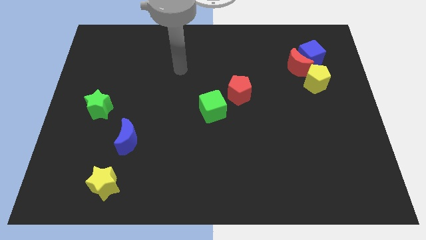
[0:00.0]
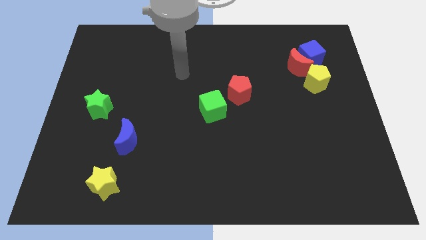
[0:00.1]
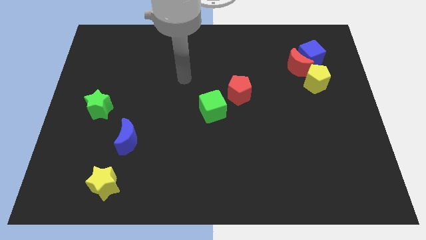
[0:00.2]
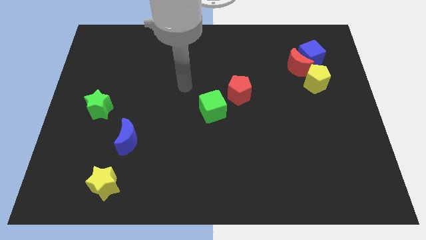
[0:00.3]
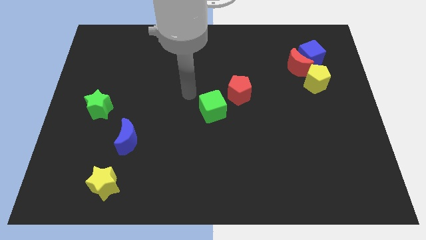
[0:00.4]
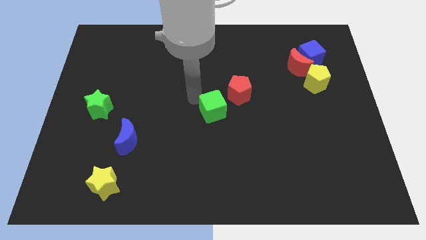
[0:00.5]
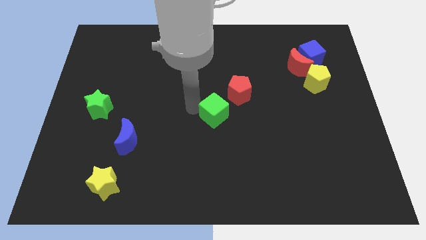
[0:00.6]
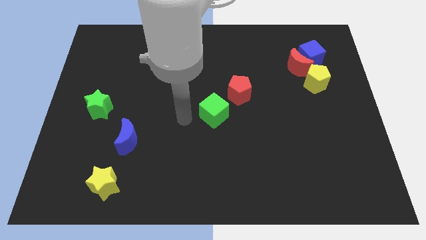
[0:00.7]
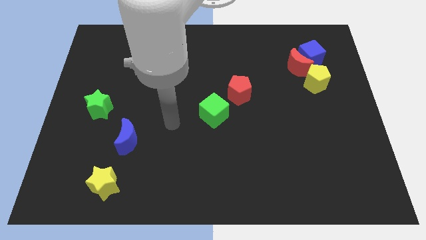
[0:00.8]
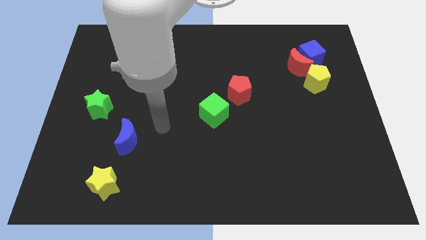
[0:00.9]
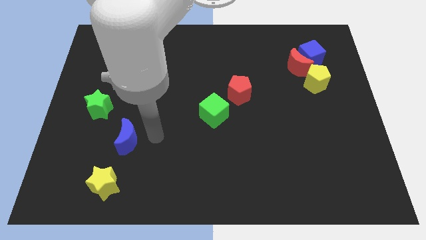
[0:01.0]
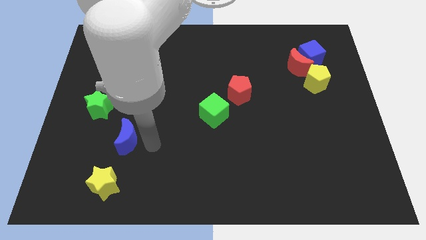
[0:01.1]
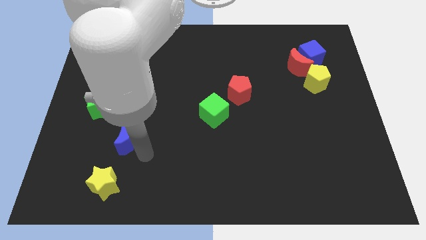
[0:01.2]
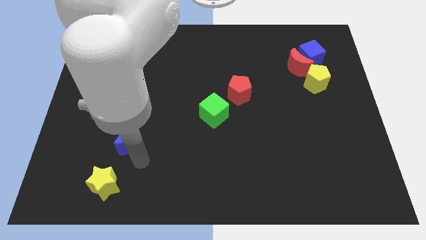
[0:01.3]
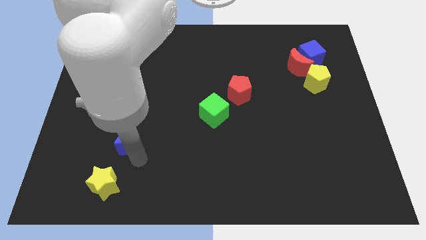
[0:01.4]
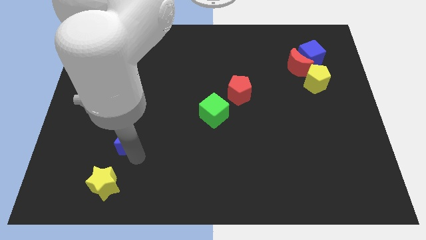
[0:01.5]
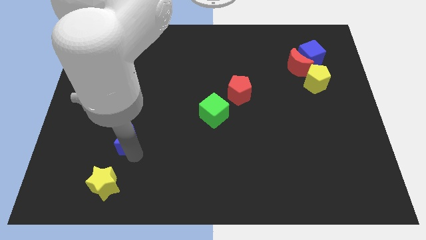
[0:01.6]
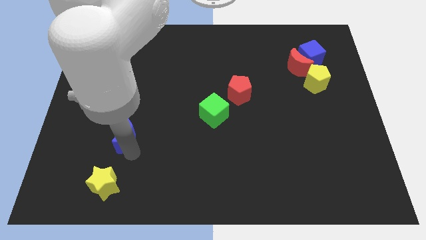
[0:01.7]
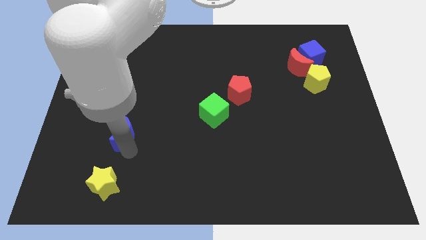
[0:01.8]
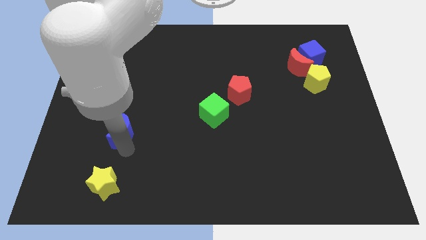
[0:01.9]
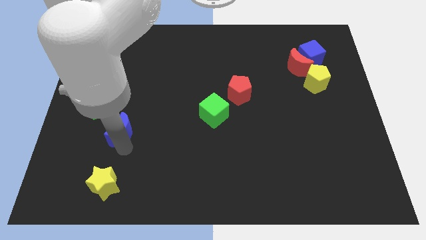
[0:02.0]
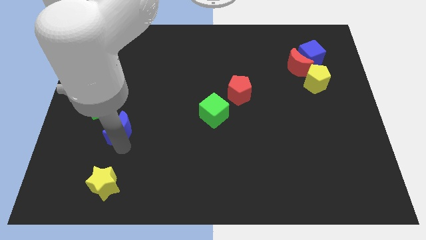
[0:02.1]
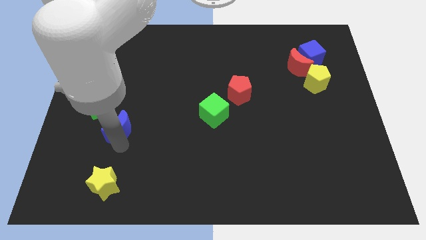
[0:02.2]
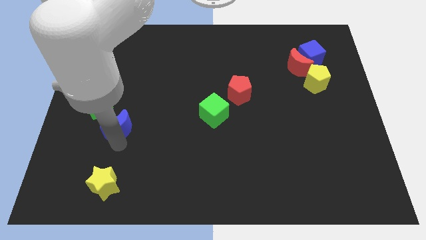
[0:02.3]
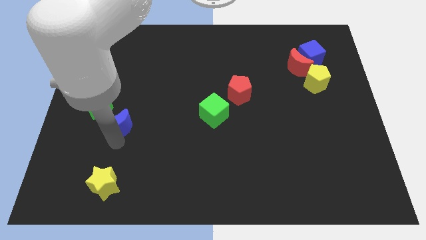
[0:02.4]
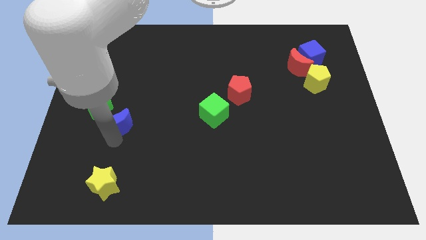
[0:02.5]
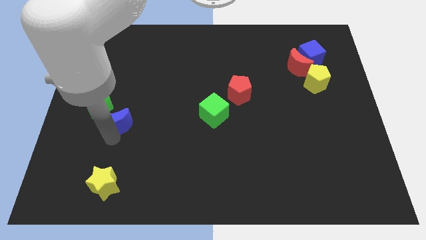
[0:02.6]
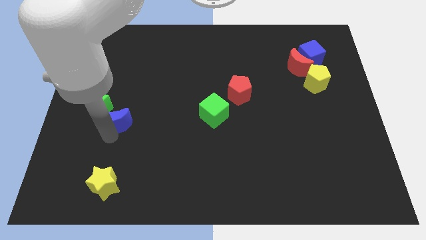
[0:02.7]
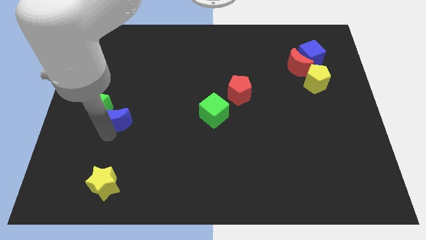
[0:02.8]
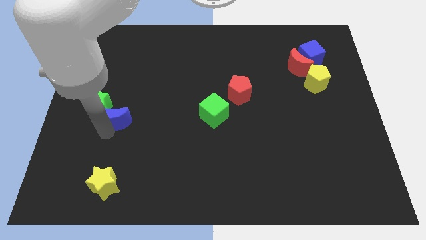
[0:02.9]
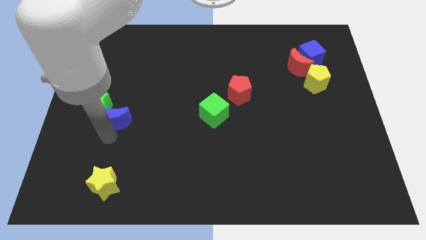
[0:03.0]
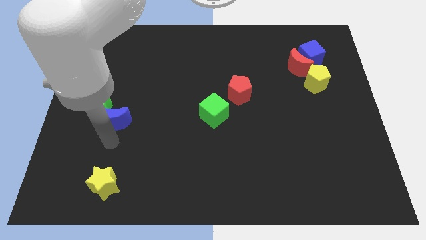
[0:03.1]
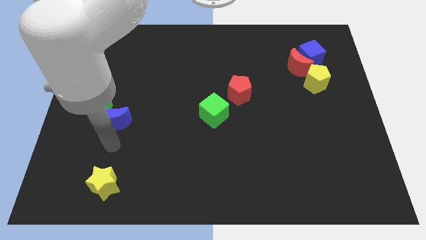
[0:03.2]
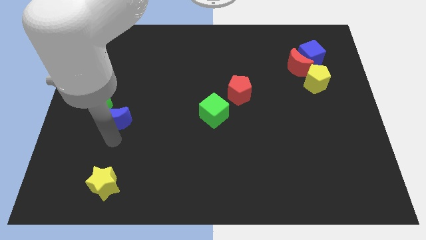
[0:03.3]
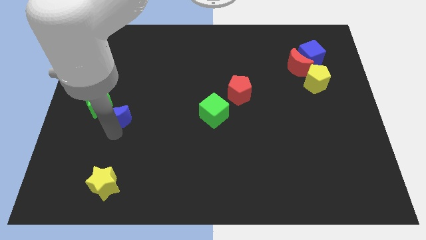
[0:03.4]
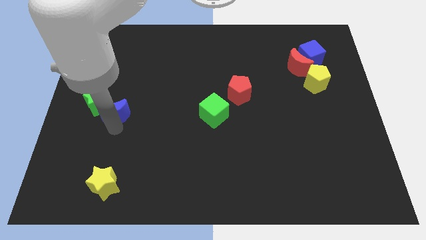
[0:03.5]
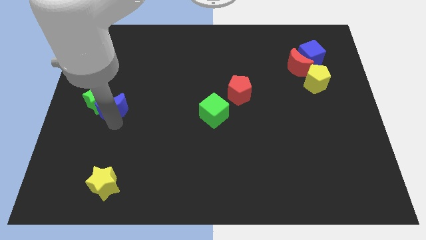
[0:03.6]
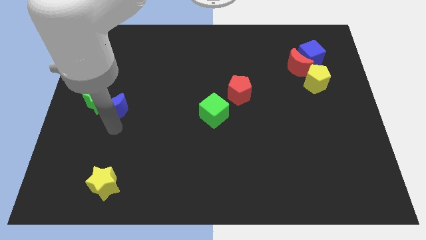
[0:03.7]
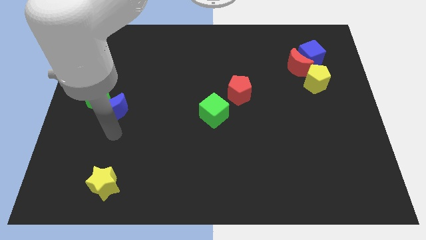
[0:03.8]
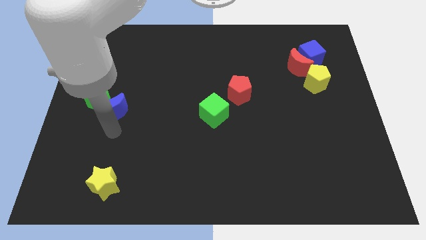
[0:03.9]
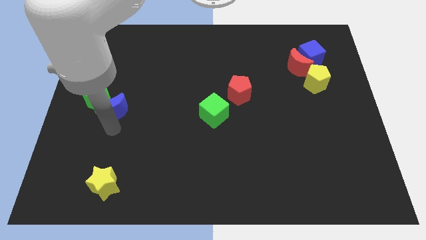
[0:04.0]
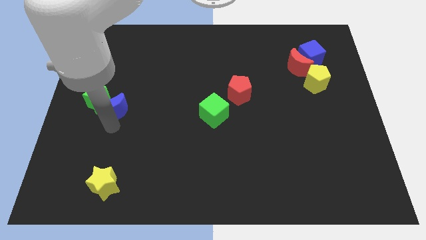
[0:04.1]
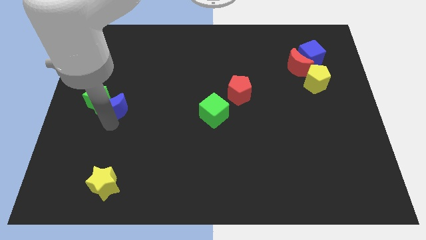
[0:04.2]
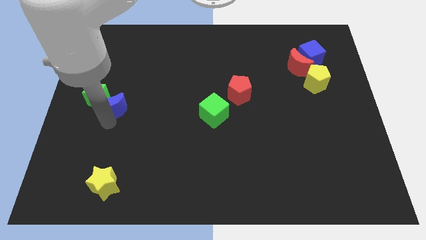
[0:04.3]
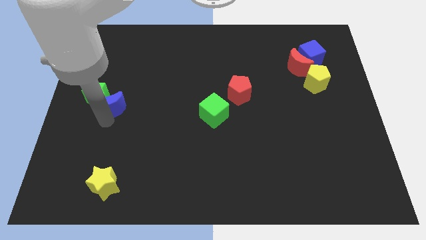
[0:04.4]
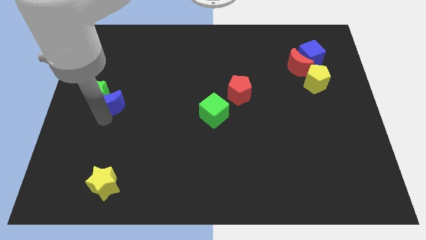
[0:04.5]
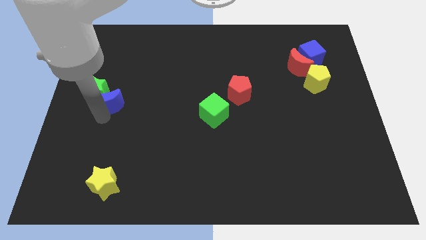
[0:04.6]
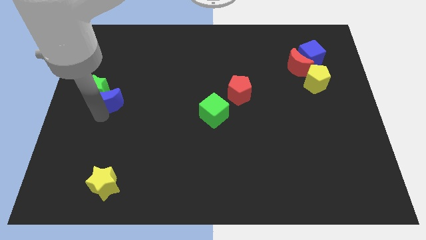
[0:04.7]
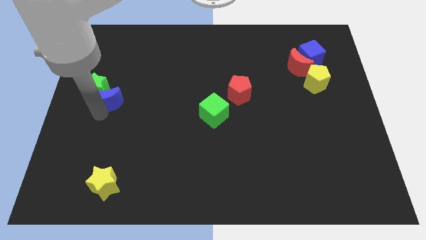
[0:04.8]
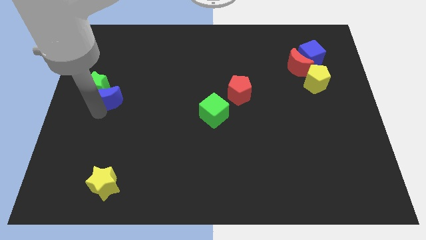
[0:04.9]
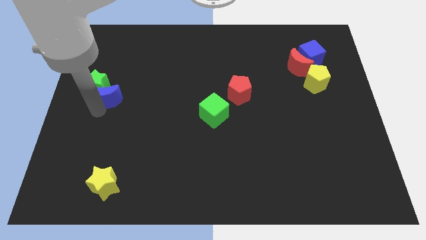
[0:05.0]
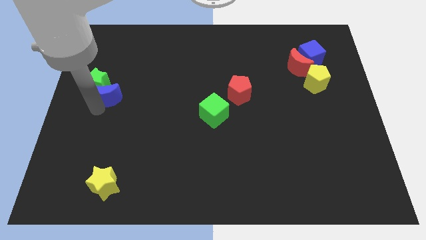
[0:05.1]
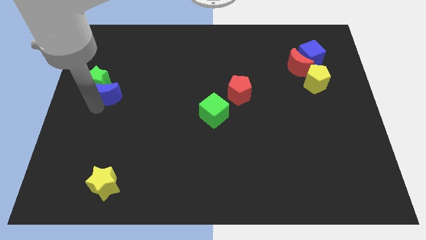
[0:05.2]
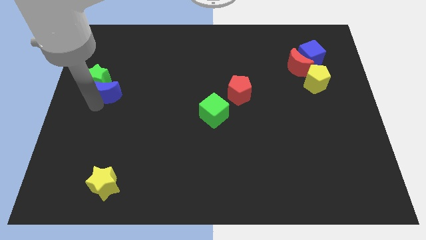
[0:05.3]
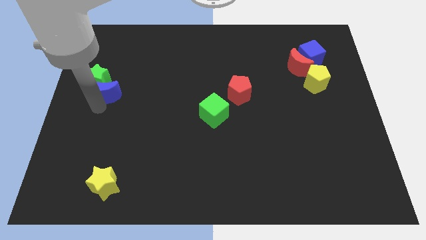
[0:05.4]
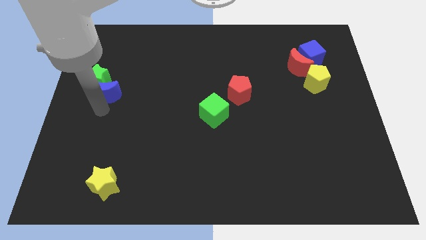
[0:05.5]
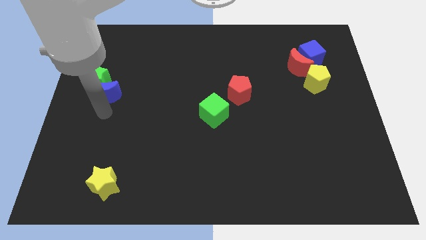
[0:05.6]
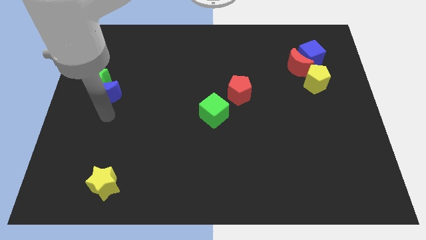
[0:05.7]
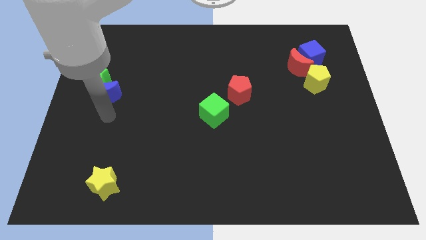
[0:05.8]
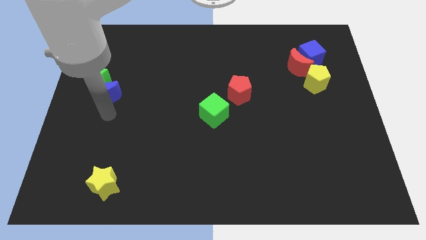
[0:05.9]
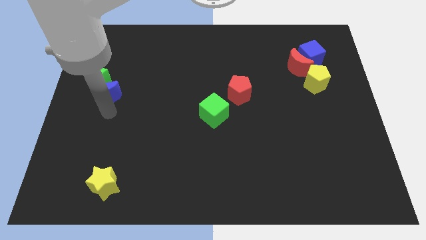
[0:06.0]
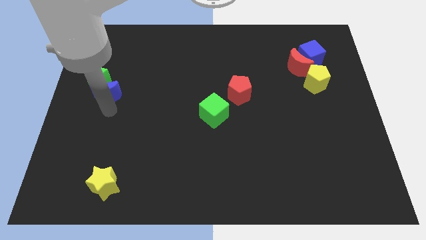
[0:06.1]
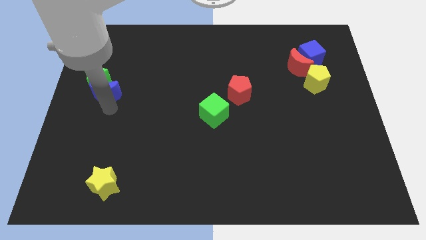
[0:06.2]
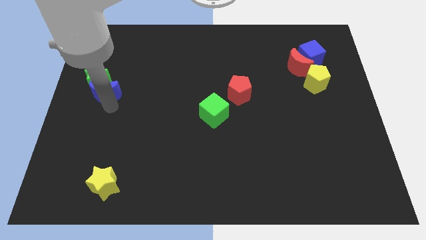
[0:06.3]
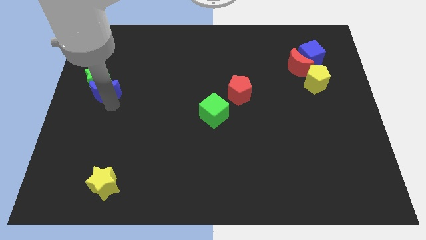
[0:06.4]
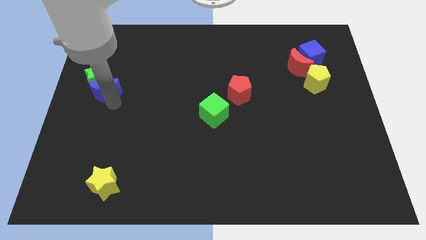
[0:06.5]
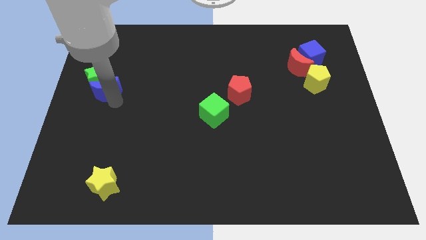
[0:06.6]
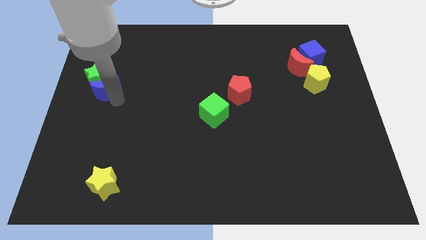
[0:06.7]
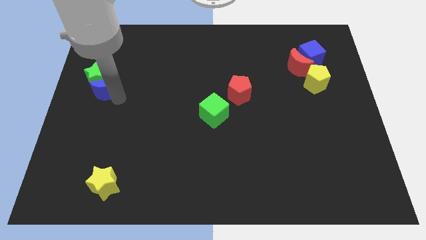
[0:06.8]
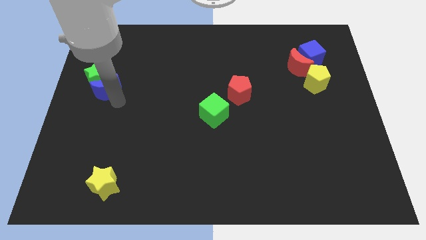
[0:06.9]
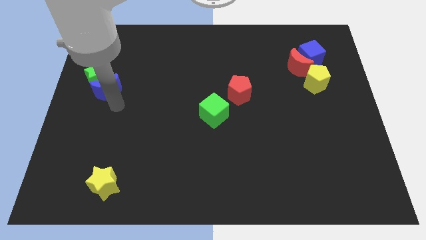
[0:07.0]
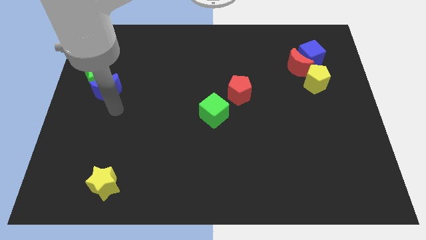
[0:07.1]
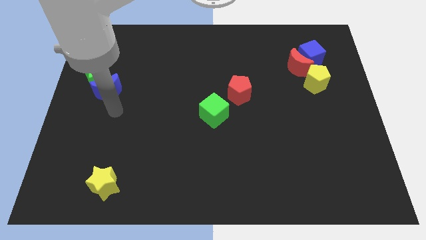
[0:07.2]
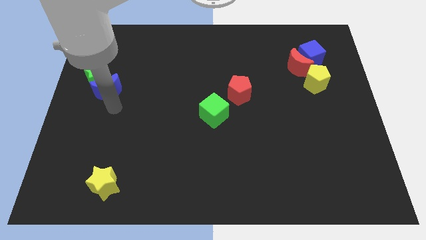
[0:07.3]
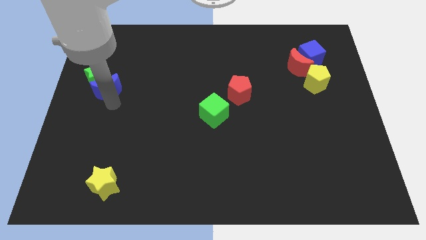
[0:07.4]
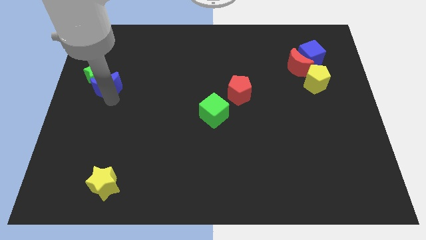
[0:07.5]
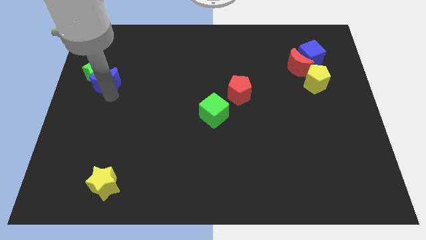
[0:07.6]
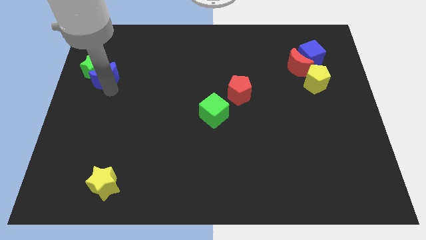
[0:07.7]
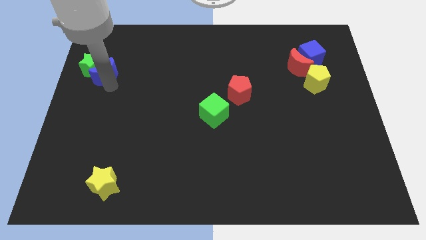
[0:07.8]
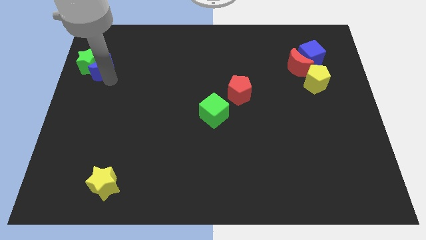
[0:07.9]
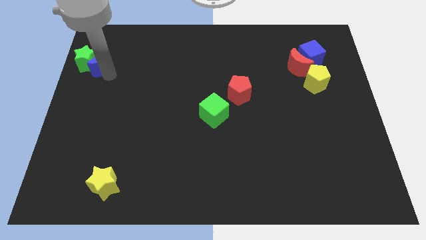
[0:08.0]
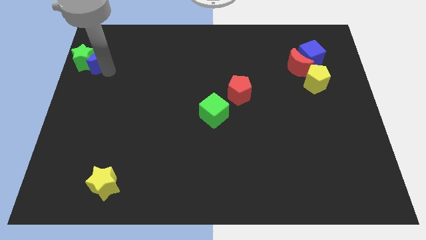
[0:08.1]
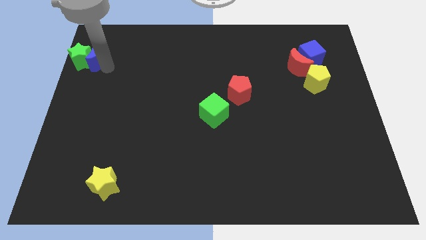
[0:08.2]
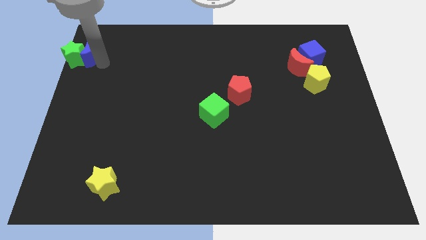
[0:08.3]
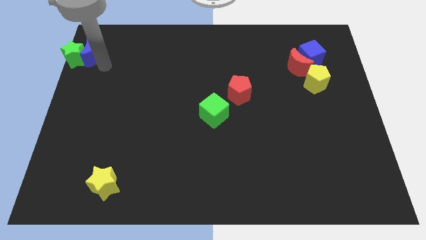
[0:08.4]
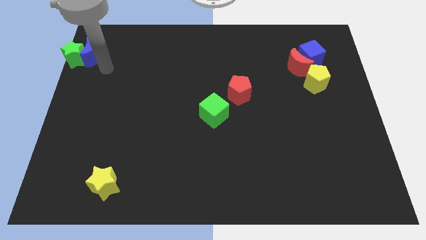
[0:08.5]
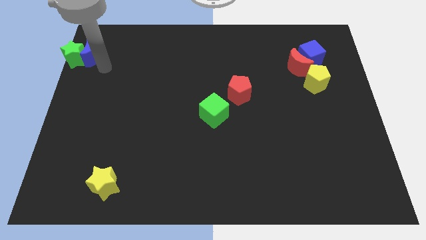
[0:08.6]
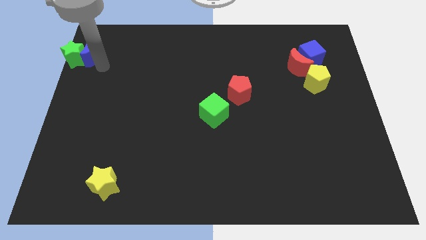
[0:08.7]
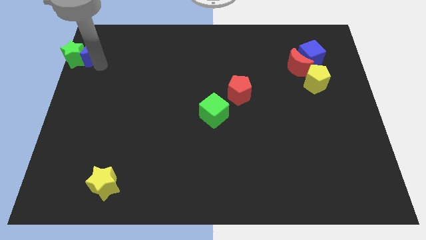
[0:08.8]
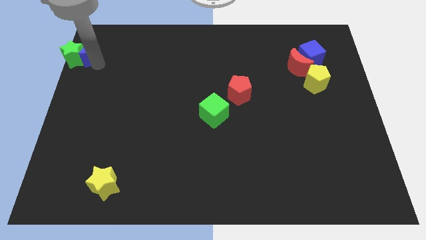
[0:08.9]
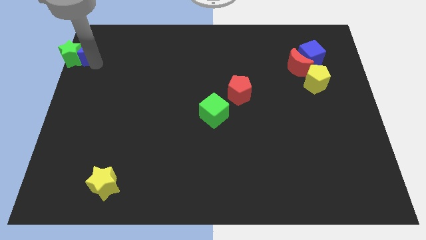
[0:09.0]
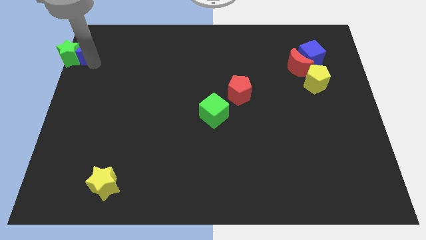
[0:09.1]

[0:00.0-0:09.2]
slide the blue moon to the top left
